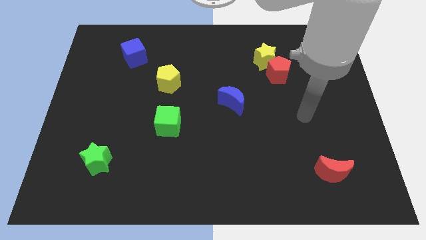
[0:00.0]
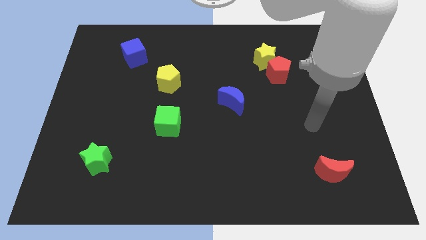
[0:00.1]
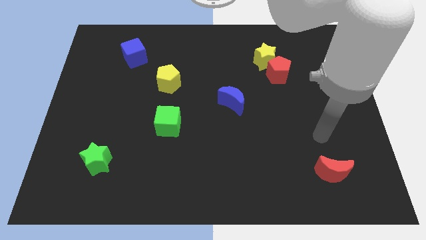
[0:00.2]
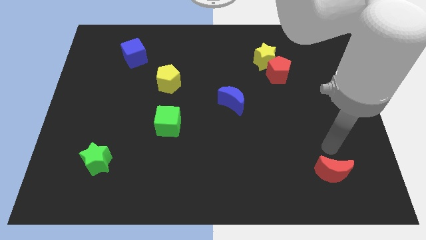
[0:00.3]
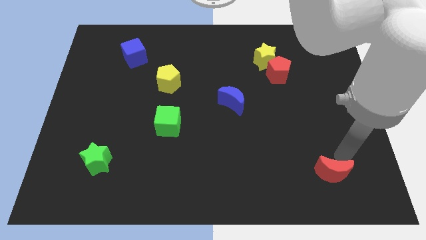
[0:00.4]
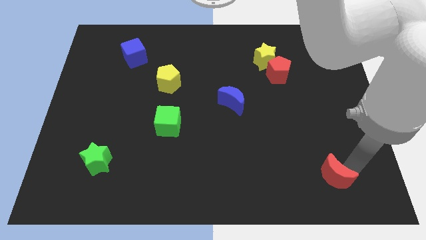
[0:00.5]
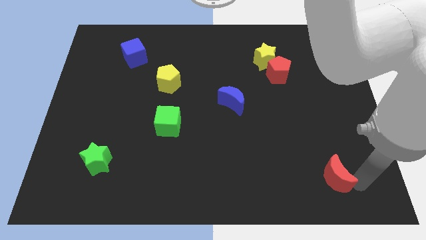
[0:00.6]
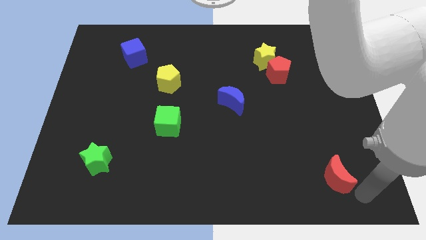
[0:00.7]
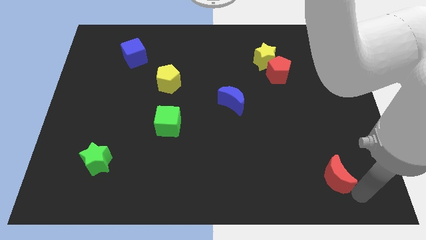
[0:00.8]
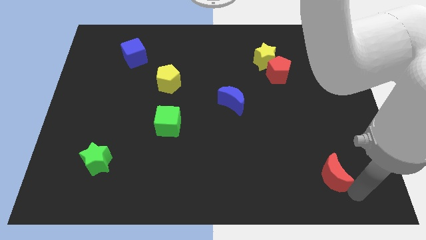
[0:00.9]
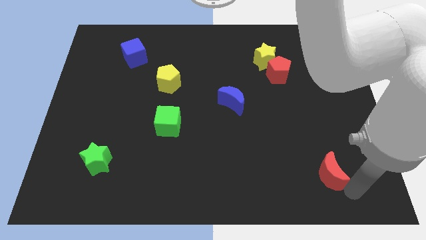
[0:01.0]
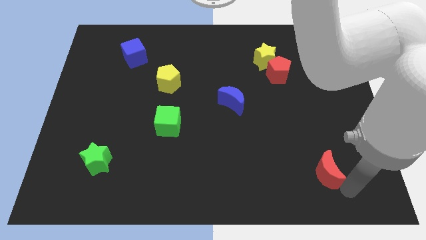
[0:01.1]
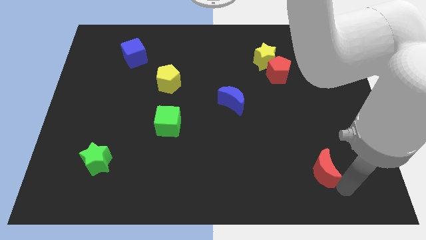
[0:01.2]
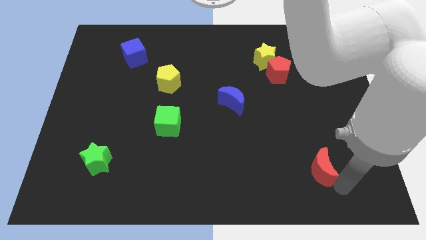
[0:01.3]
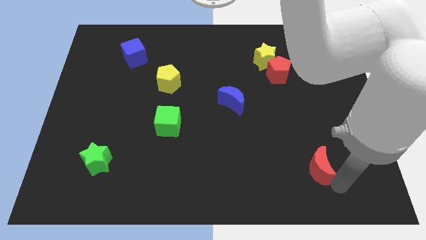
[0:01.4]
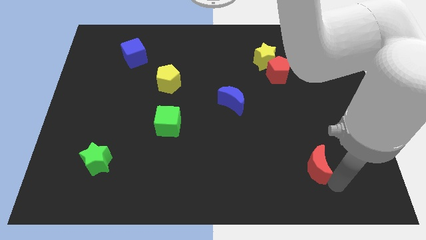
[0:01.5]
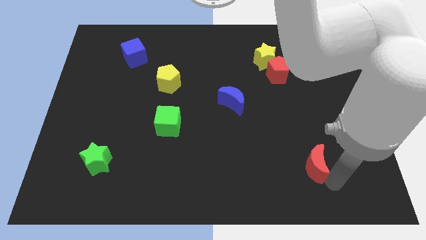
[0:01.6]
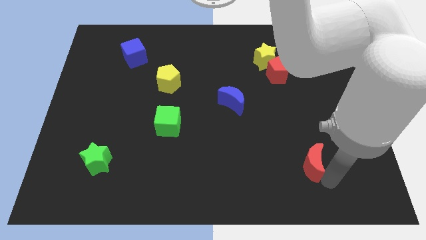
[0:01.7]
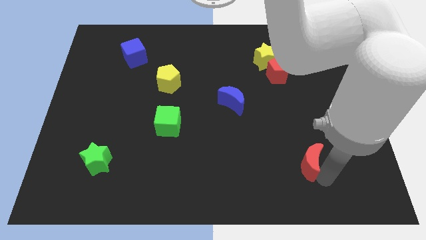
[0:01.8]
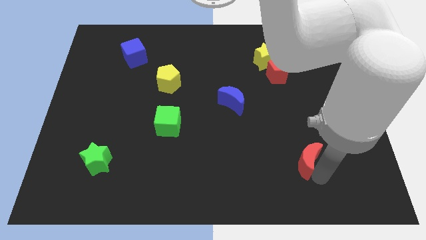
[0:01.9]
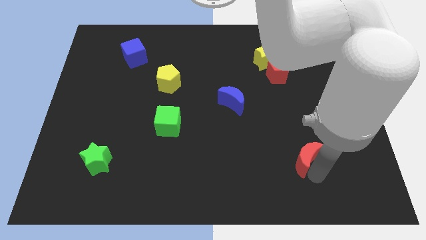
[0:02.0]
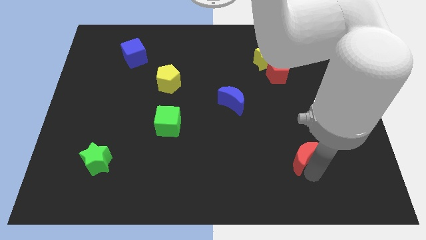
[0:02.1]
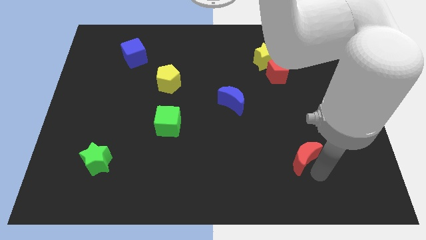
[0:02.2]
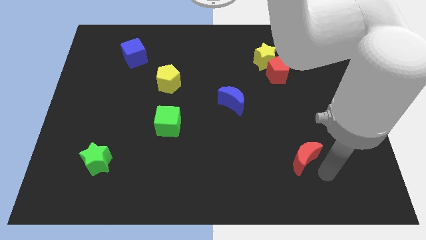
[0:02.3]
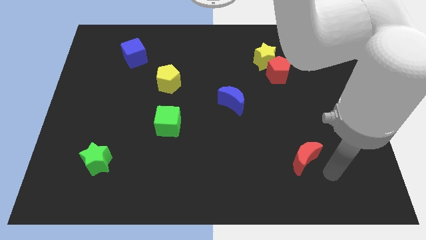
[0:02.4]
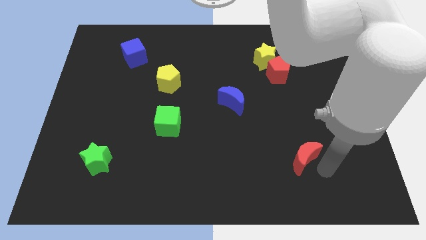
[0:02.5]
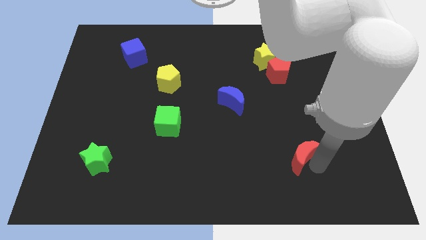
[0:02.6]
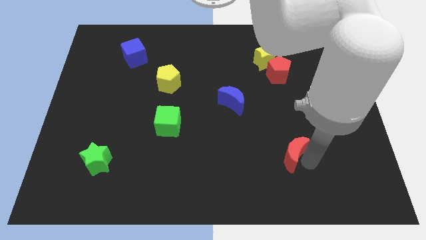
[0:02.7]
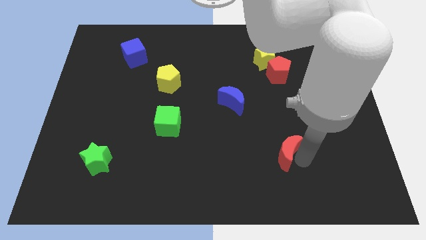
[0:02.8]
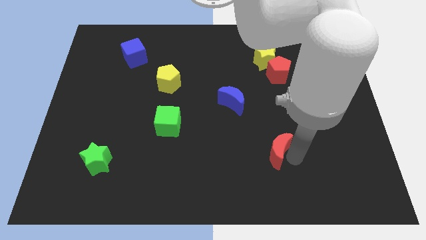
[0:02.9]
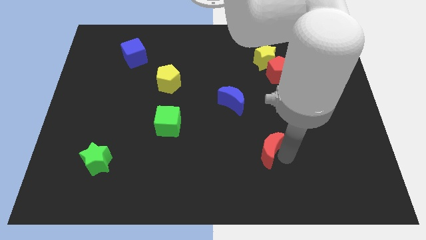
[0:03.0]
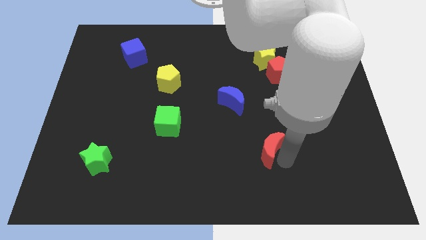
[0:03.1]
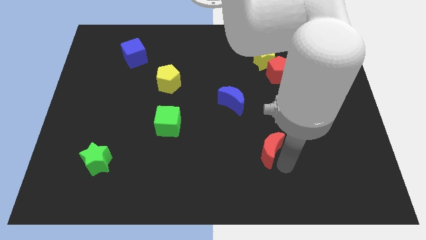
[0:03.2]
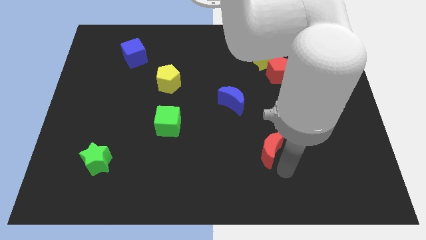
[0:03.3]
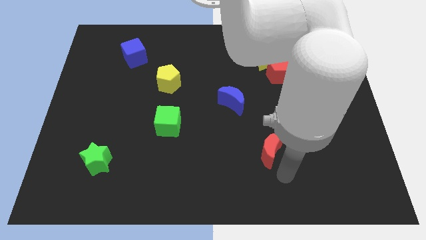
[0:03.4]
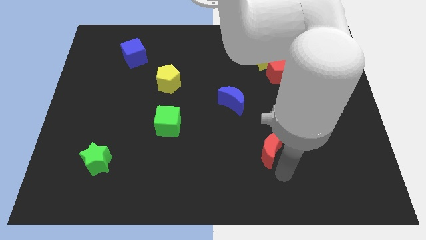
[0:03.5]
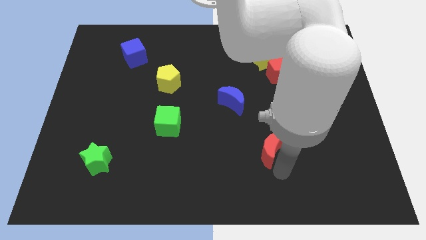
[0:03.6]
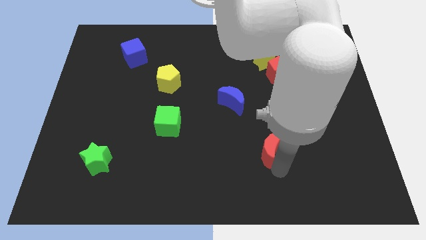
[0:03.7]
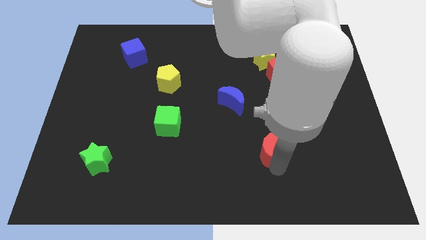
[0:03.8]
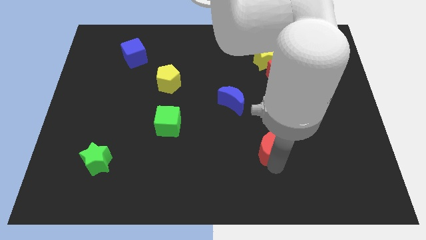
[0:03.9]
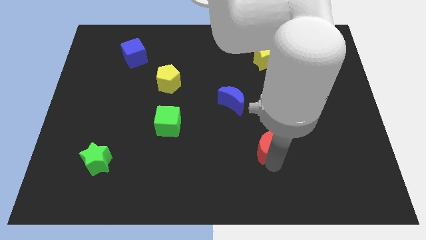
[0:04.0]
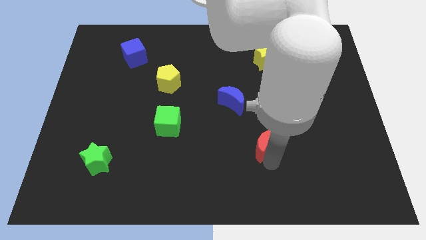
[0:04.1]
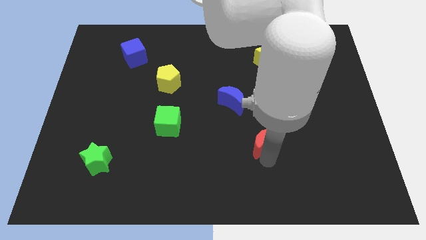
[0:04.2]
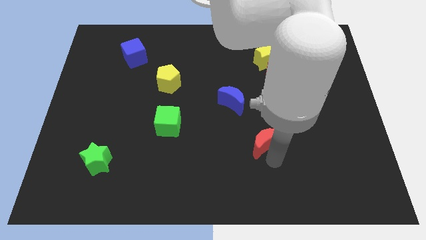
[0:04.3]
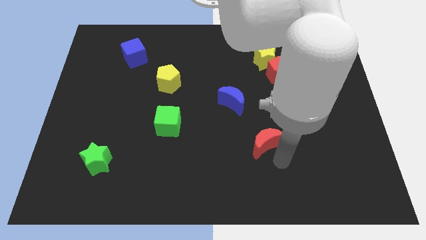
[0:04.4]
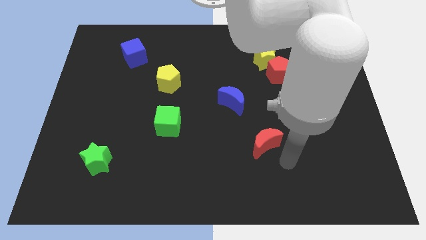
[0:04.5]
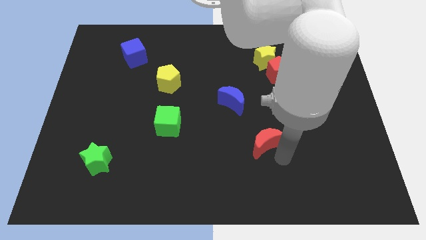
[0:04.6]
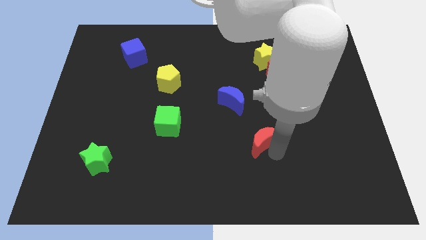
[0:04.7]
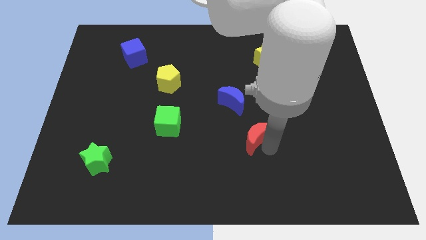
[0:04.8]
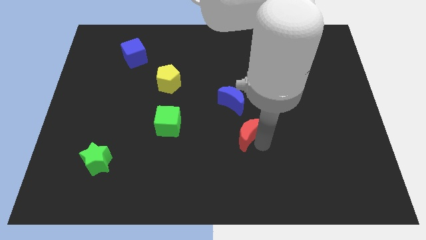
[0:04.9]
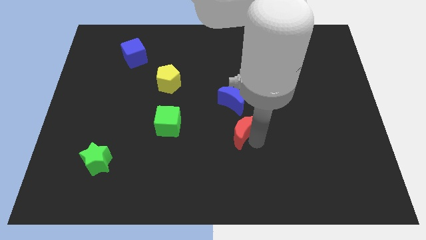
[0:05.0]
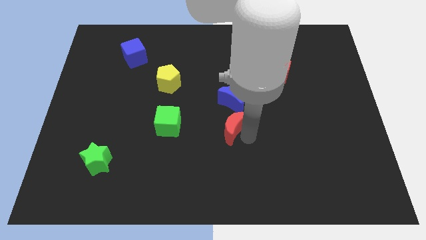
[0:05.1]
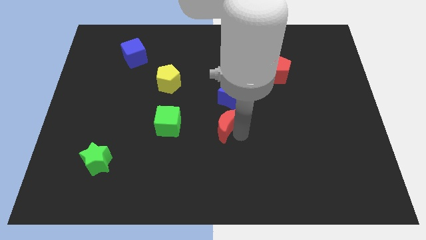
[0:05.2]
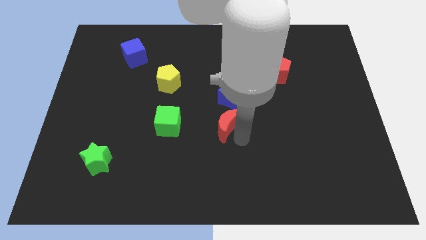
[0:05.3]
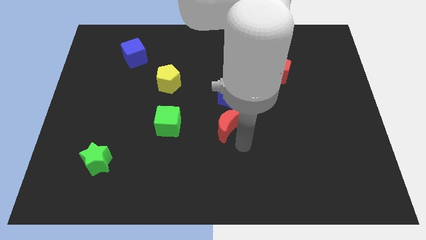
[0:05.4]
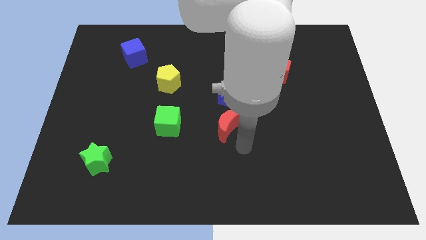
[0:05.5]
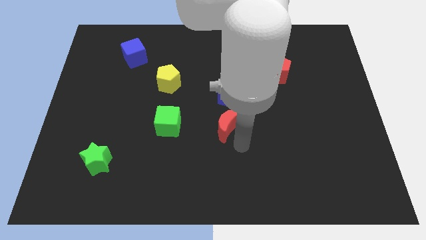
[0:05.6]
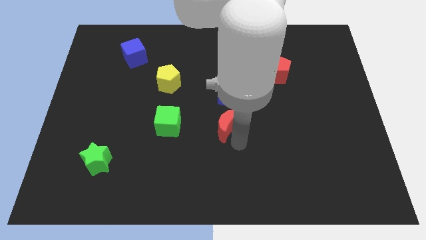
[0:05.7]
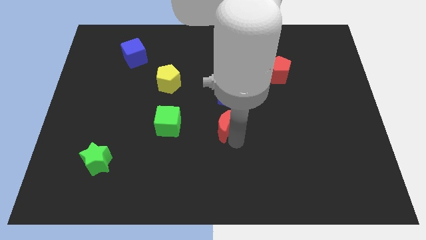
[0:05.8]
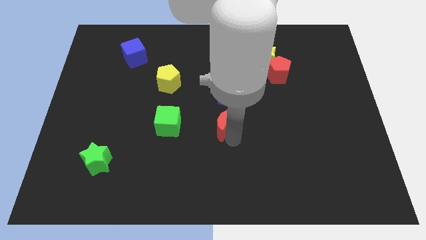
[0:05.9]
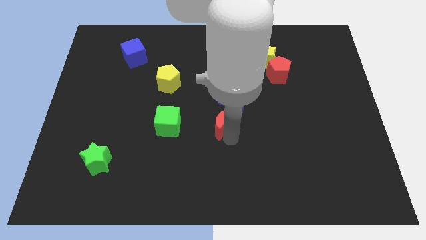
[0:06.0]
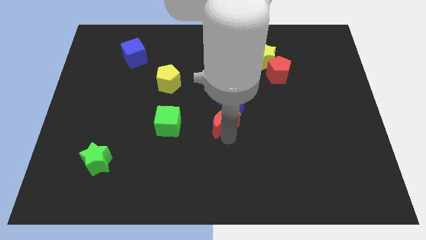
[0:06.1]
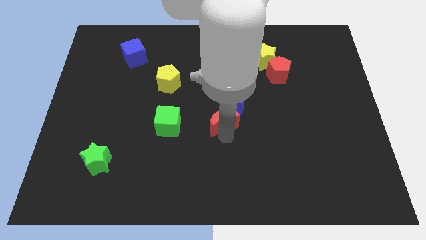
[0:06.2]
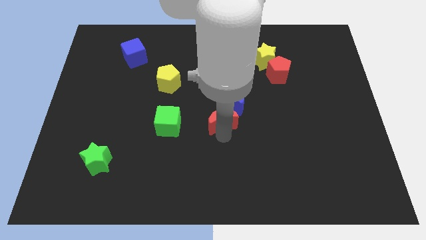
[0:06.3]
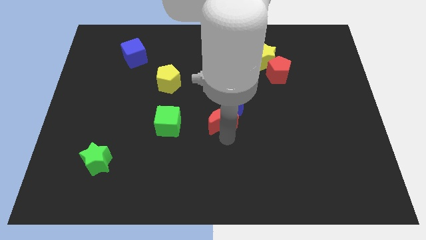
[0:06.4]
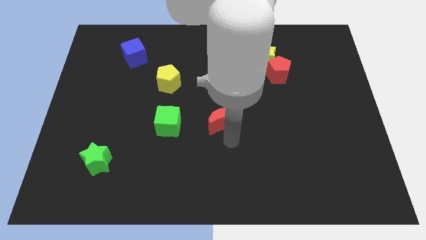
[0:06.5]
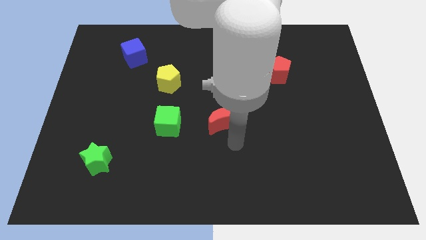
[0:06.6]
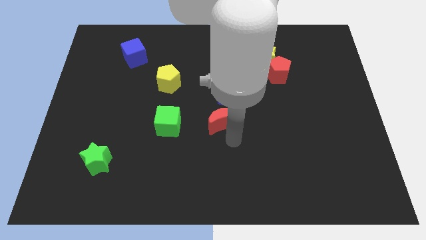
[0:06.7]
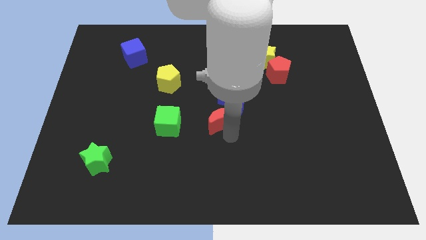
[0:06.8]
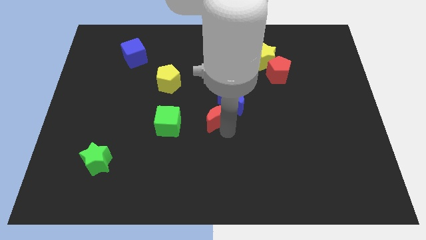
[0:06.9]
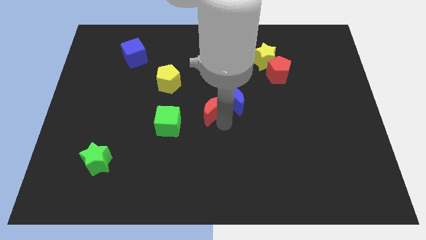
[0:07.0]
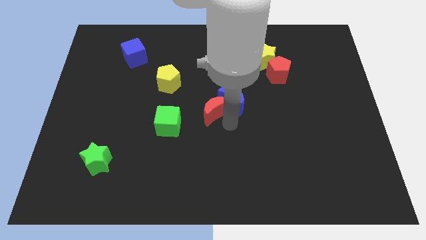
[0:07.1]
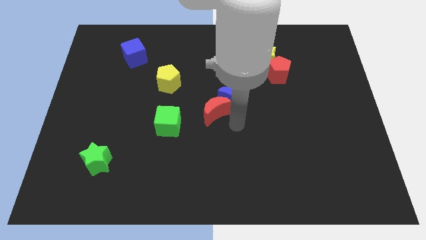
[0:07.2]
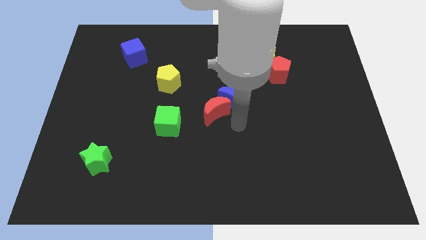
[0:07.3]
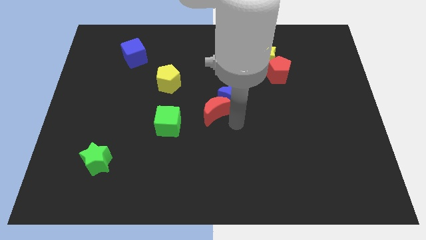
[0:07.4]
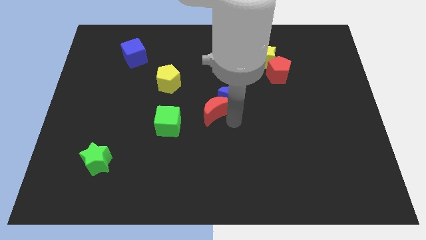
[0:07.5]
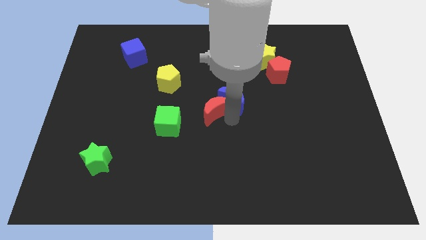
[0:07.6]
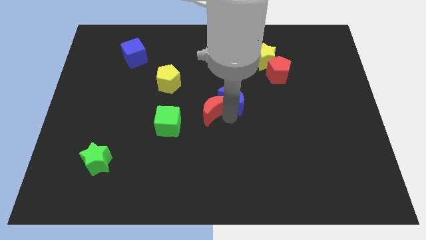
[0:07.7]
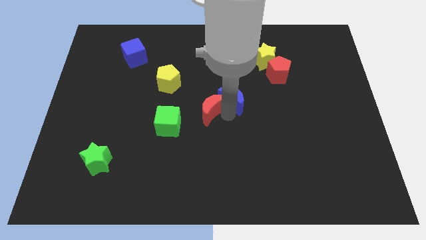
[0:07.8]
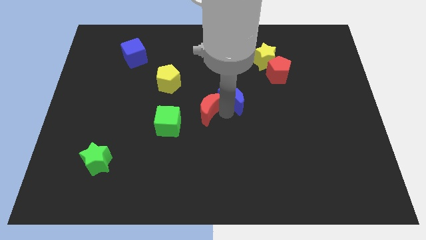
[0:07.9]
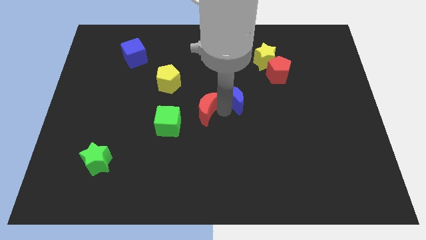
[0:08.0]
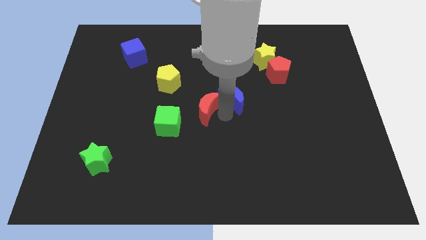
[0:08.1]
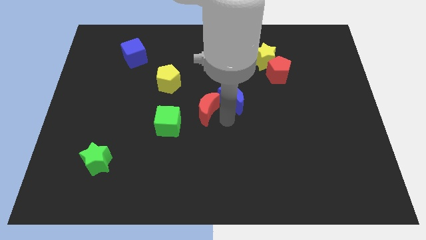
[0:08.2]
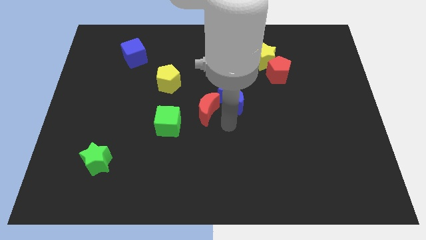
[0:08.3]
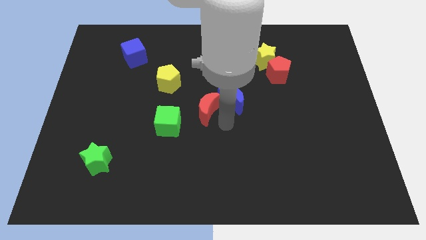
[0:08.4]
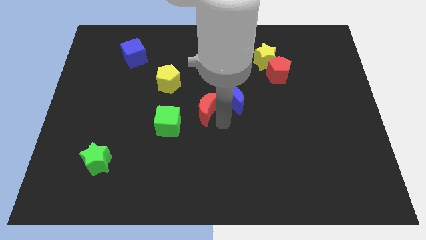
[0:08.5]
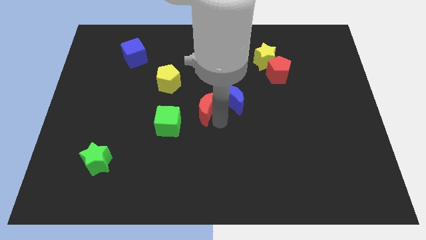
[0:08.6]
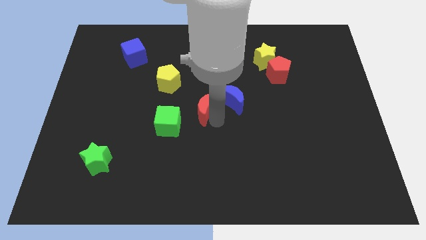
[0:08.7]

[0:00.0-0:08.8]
push the red moon to the bottom right of the yellow pentagon
